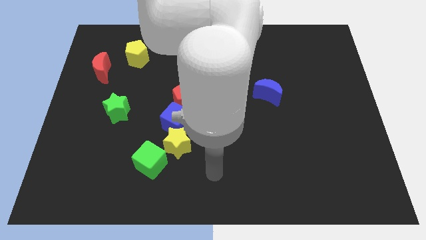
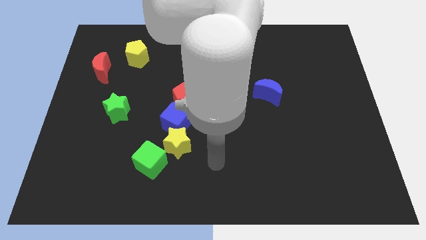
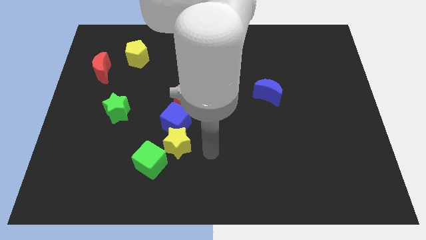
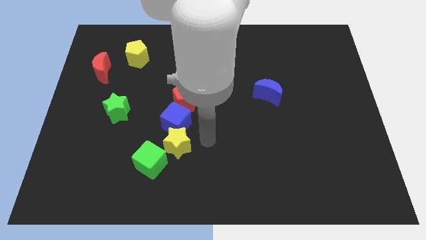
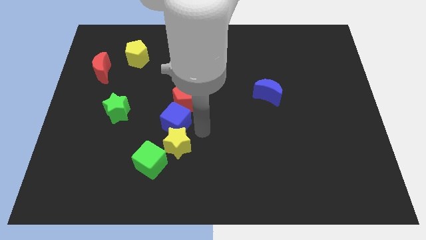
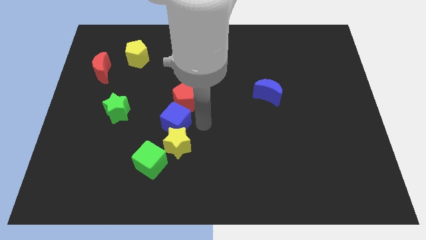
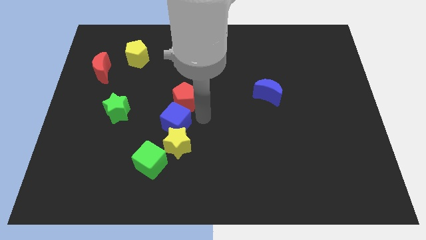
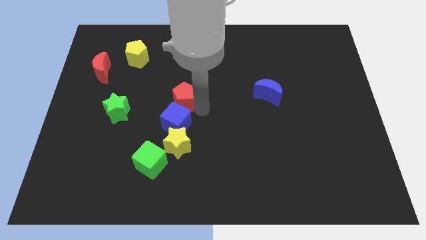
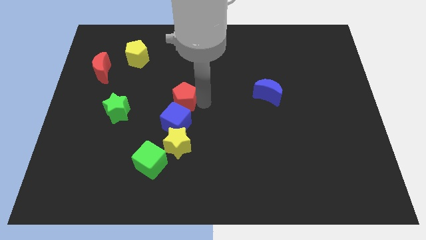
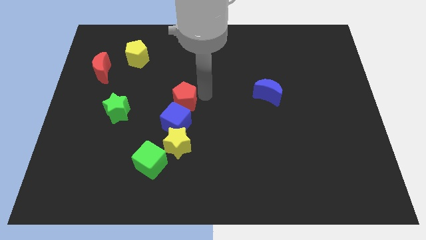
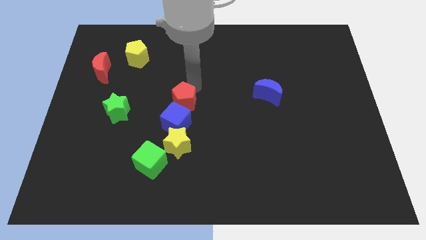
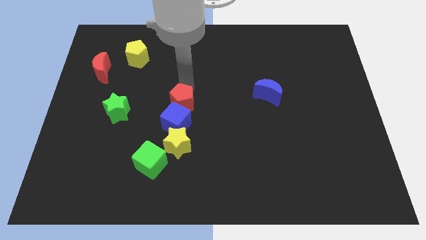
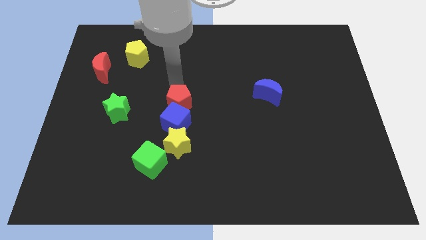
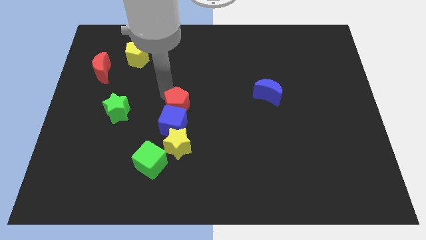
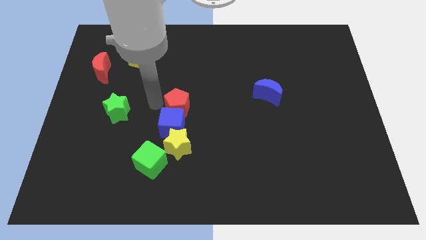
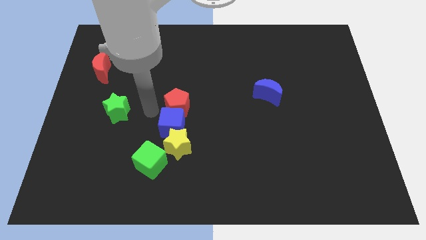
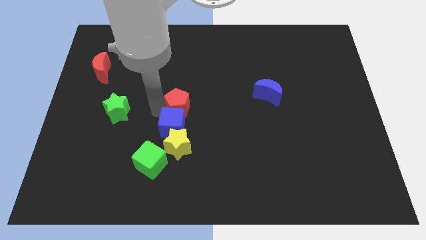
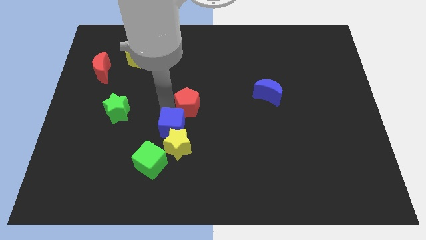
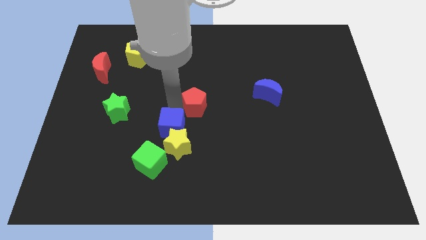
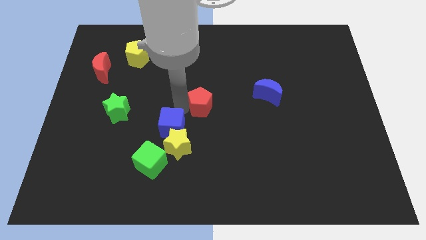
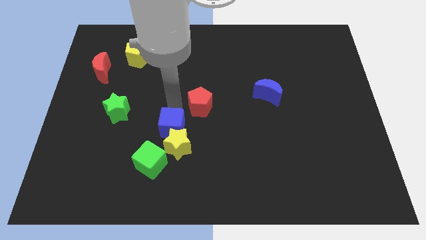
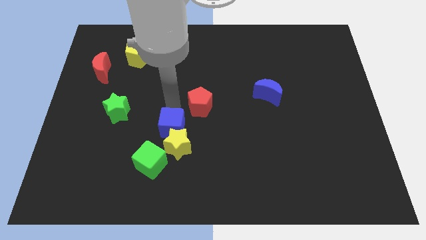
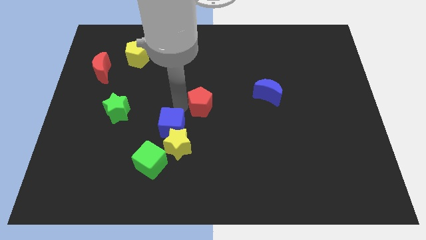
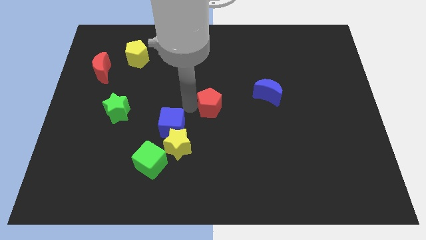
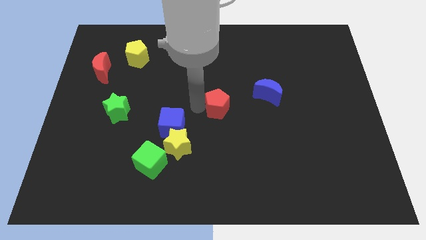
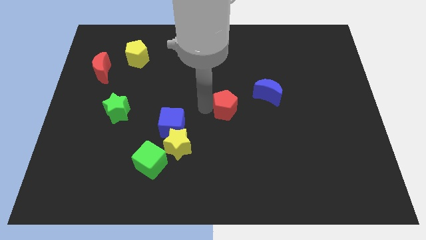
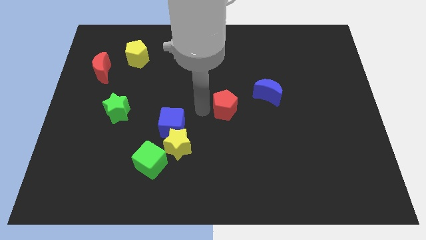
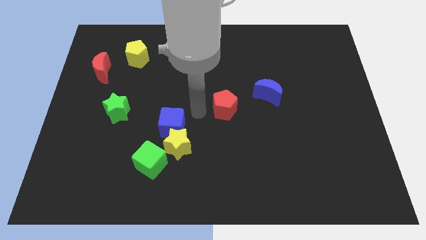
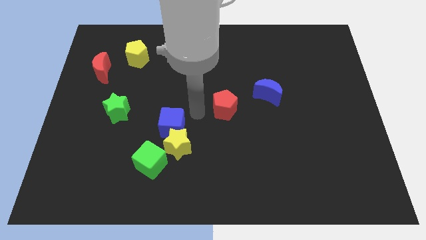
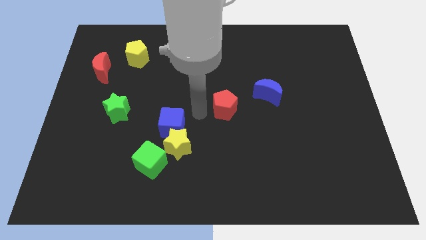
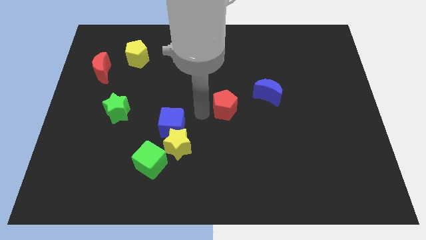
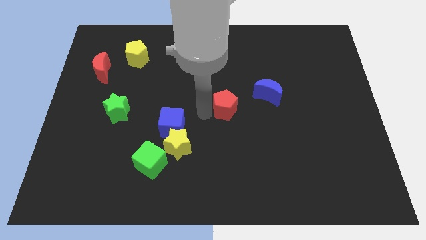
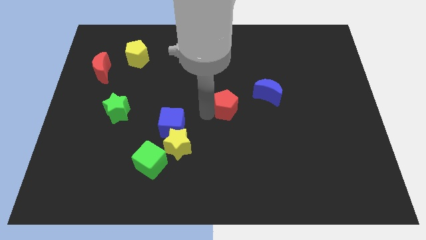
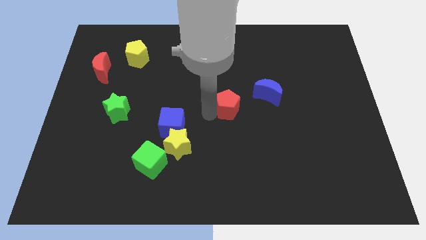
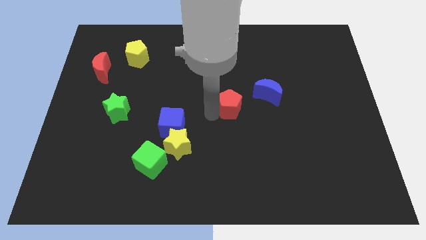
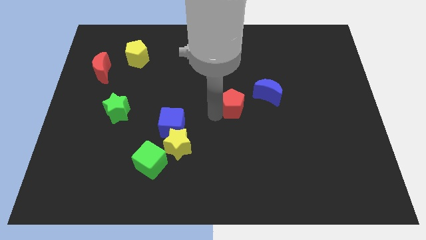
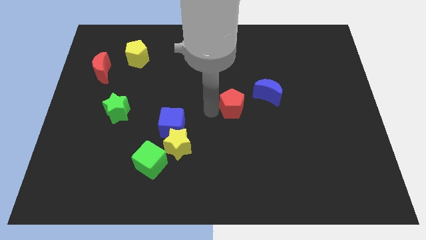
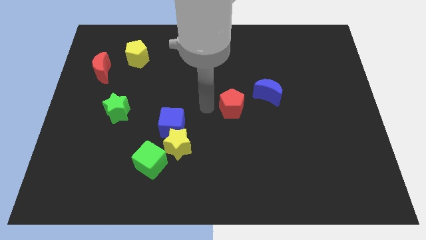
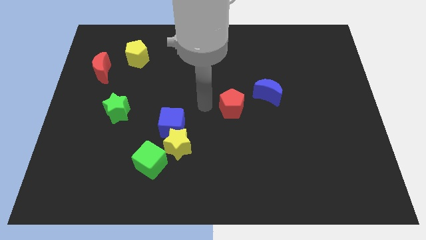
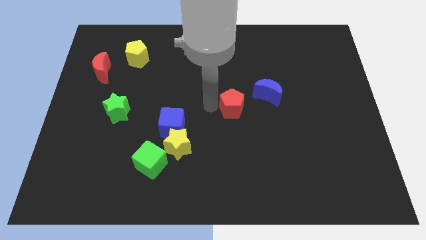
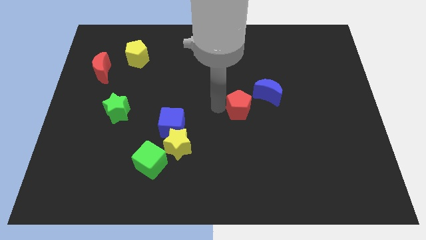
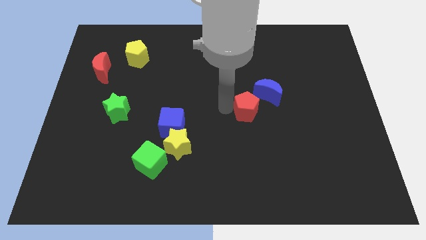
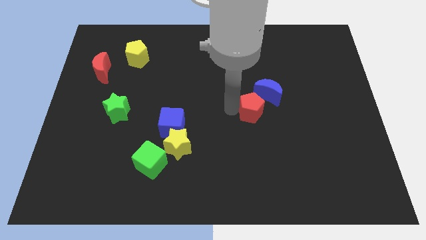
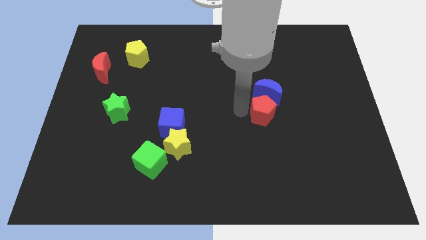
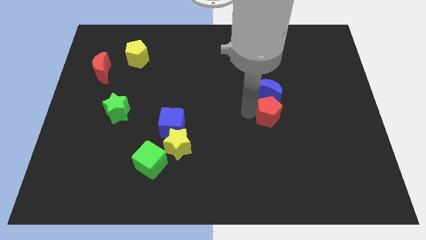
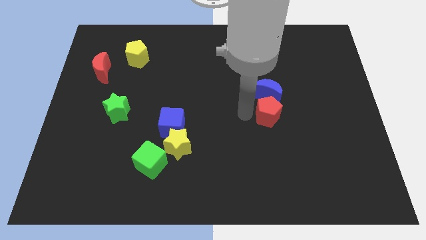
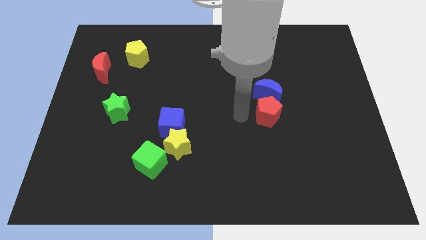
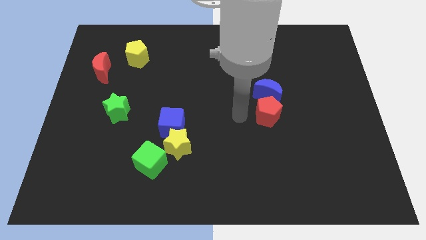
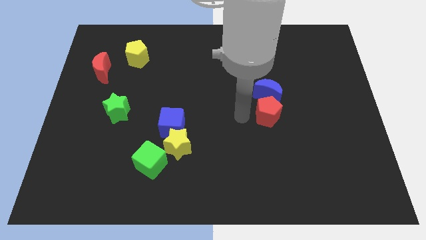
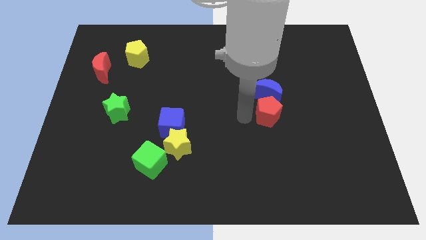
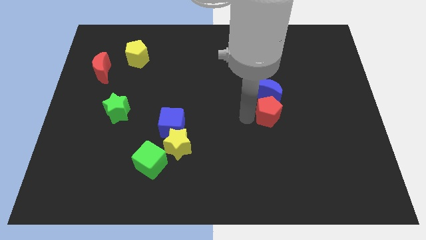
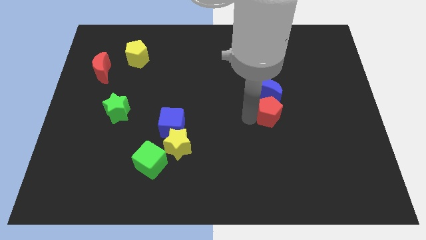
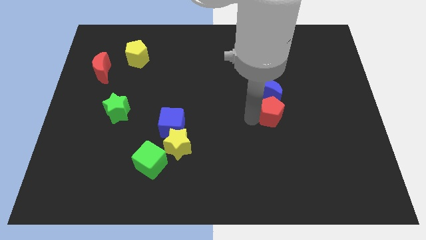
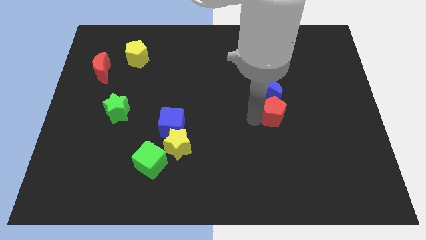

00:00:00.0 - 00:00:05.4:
slide the red pentagon right

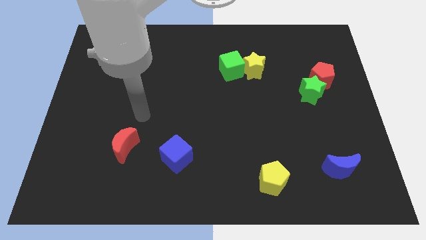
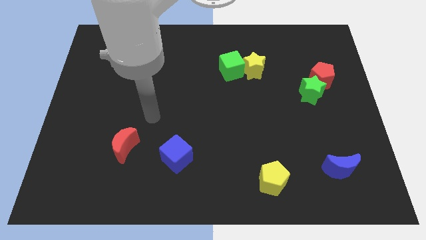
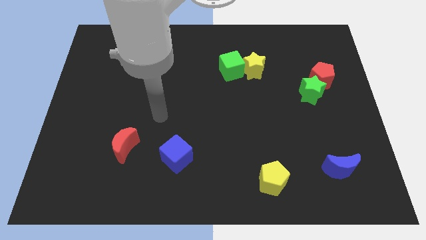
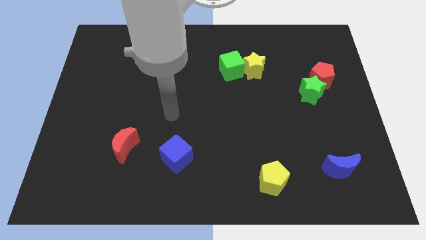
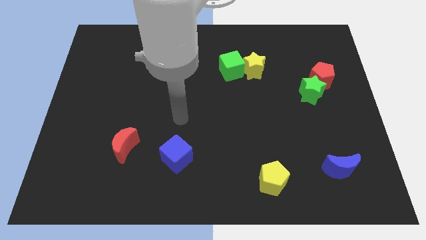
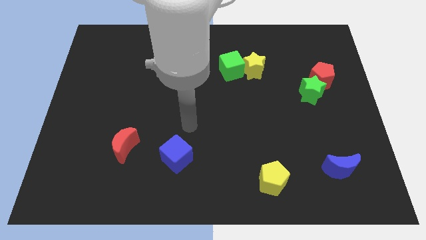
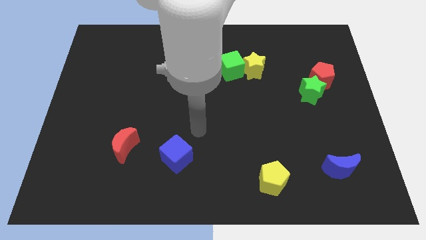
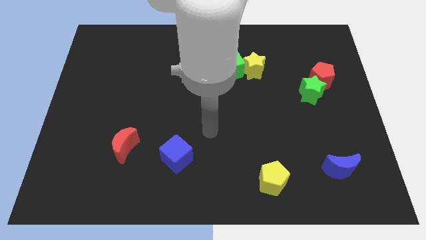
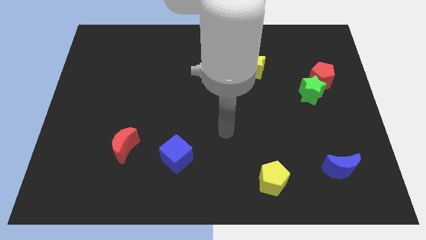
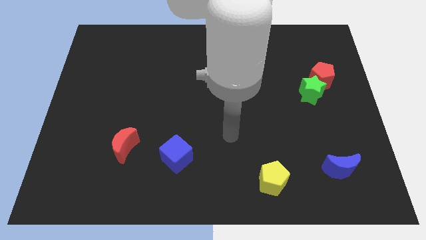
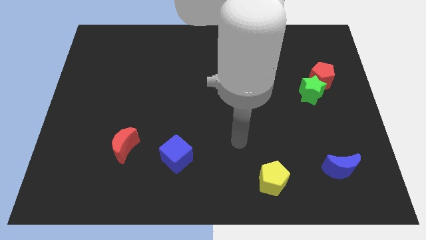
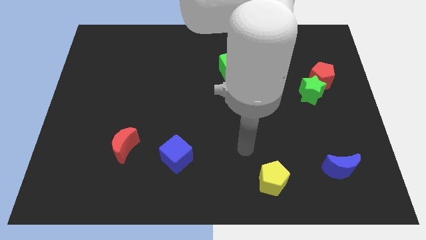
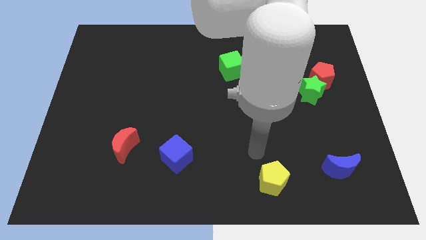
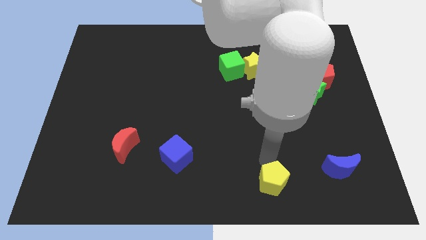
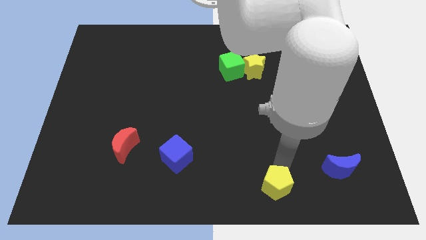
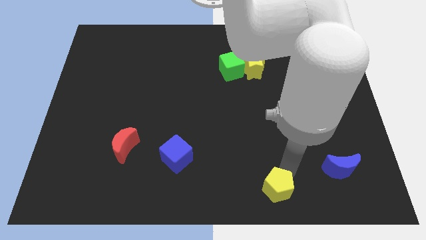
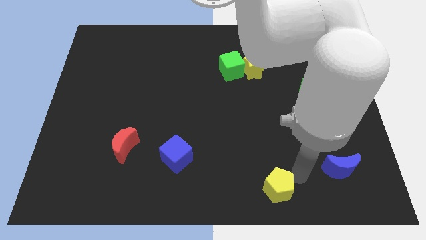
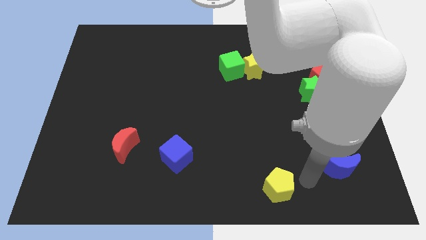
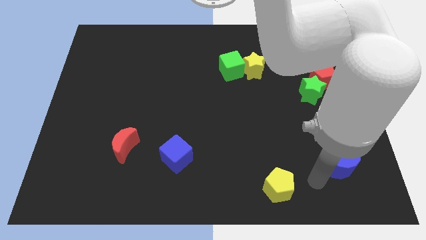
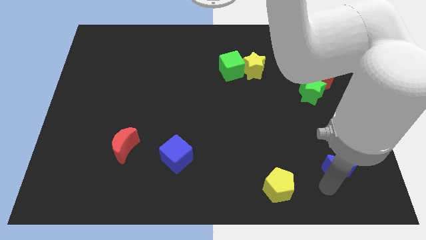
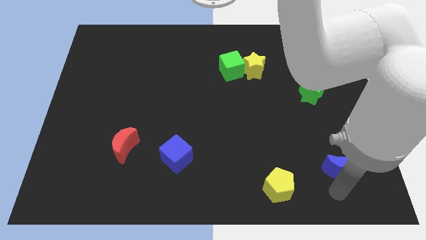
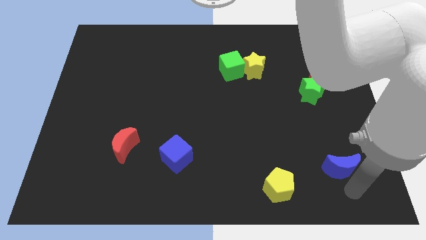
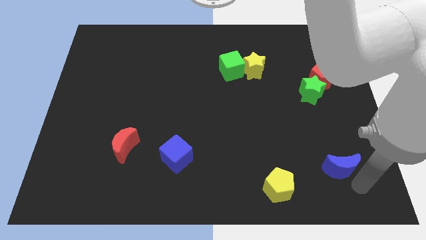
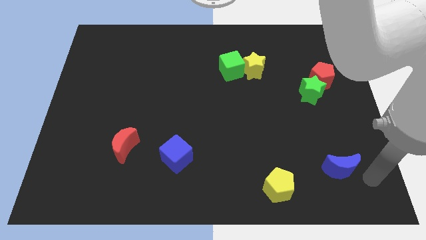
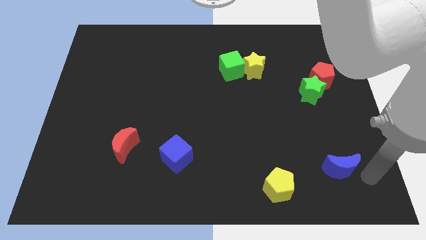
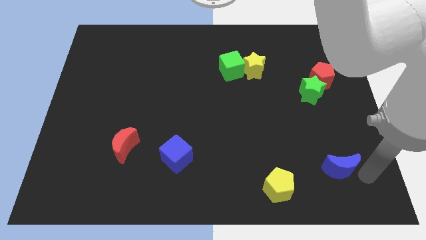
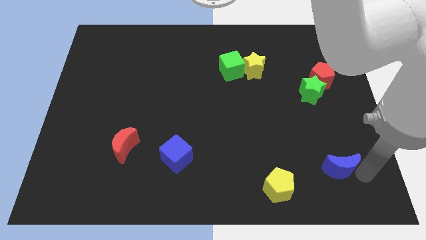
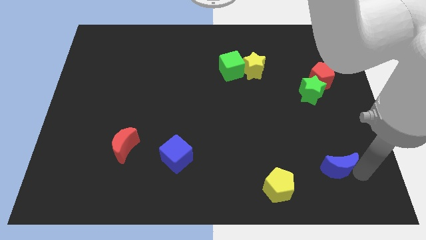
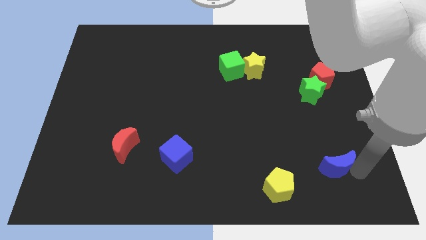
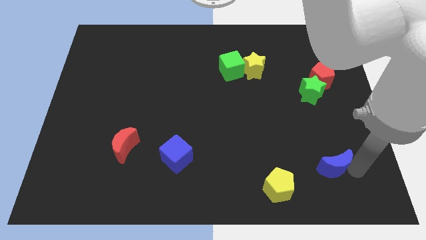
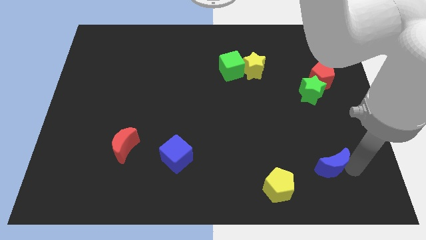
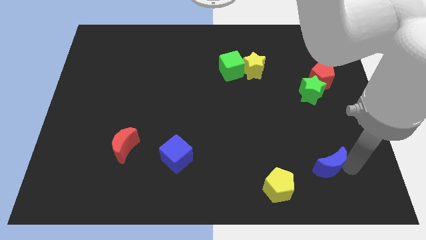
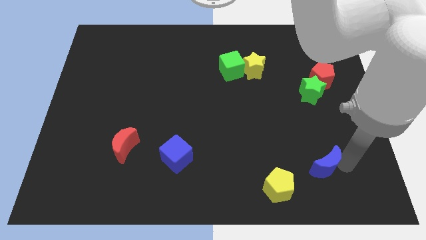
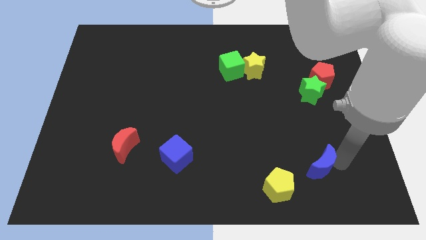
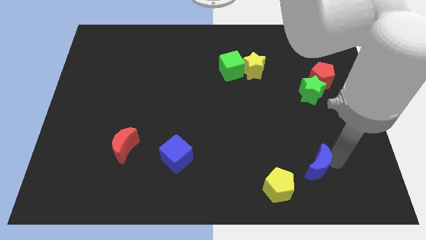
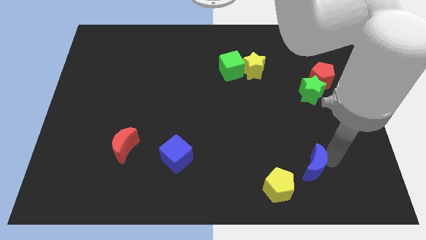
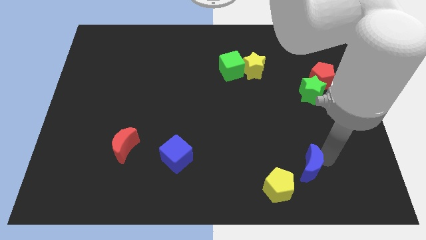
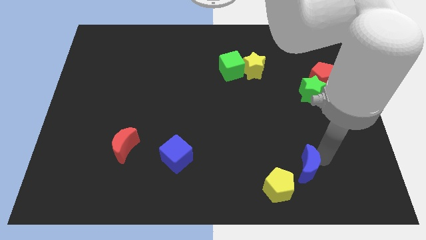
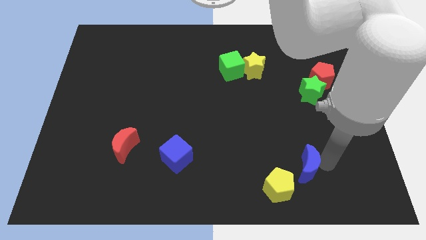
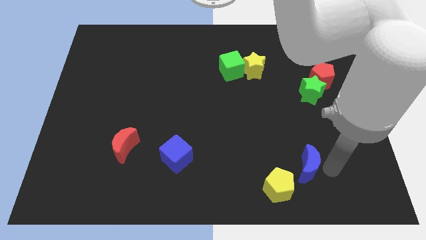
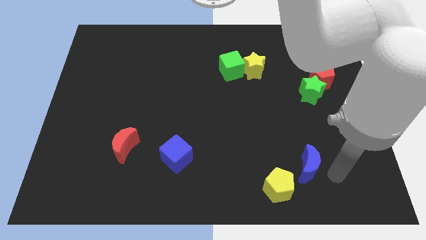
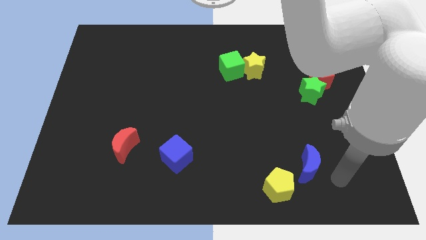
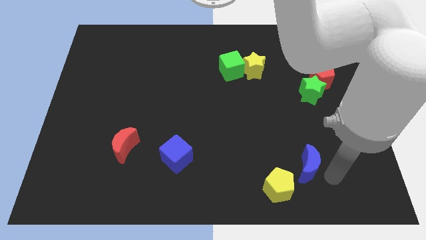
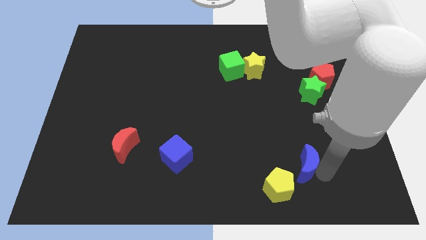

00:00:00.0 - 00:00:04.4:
push the blue moon a little bit left
